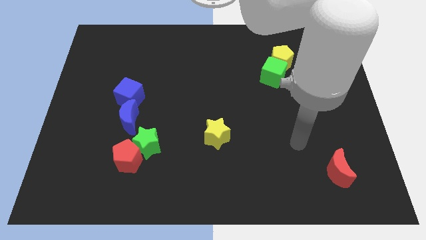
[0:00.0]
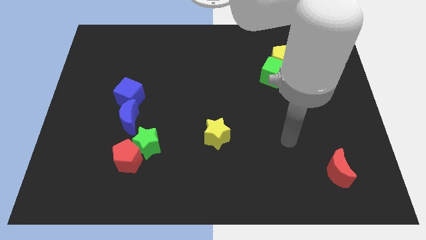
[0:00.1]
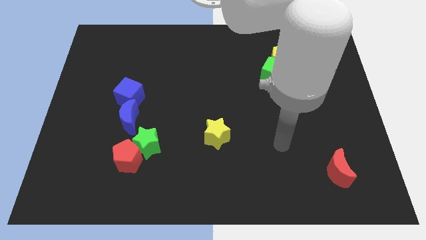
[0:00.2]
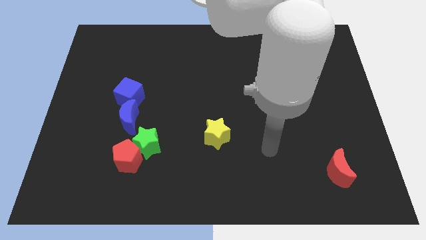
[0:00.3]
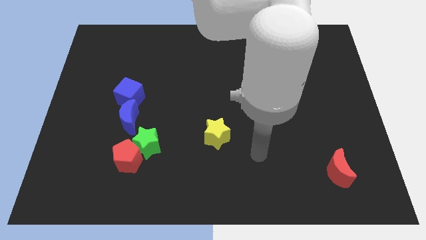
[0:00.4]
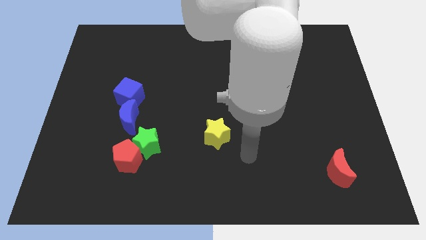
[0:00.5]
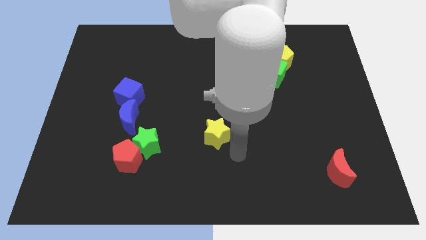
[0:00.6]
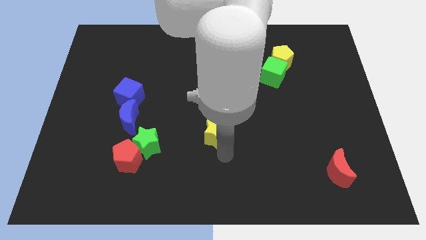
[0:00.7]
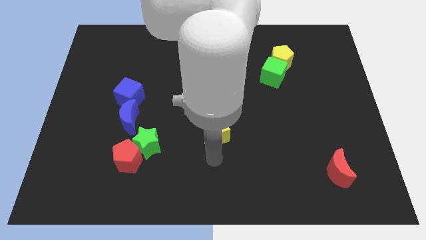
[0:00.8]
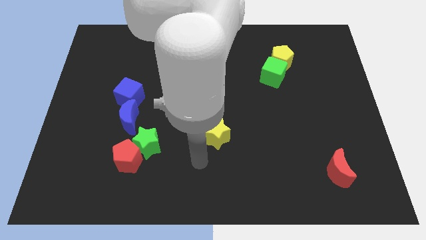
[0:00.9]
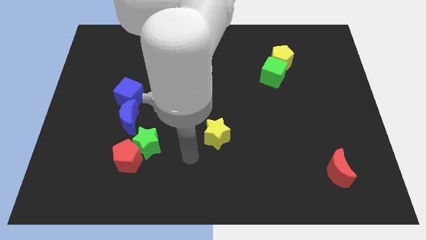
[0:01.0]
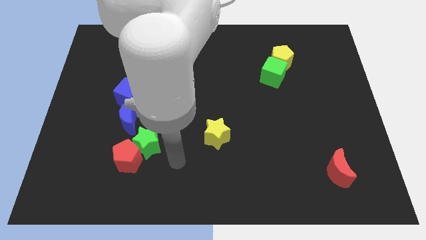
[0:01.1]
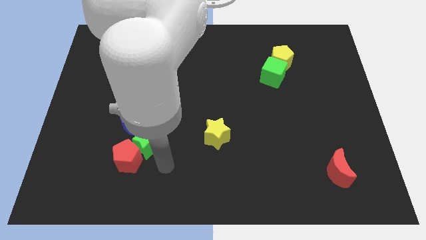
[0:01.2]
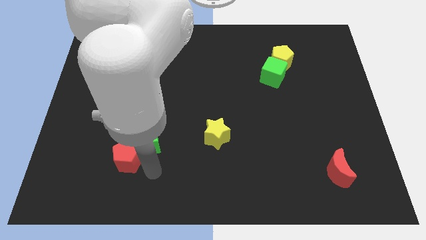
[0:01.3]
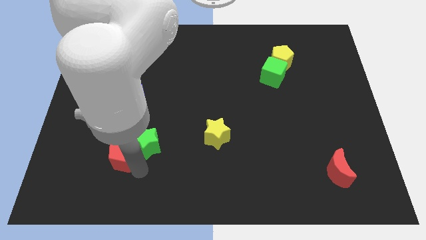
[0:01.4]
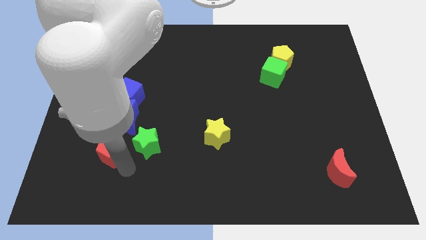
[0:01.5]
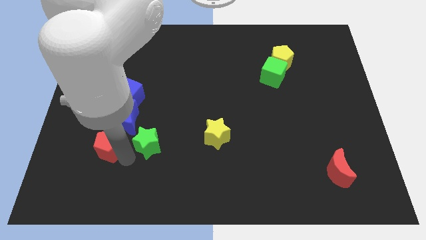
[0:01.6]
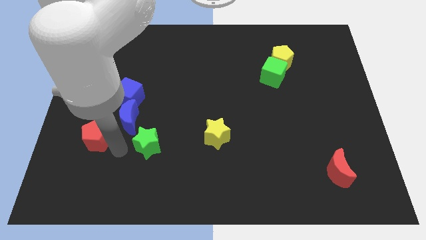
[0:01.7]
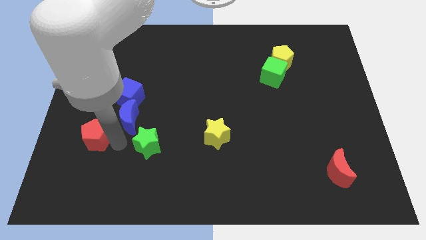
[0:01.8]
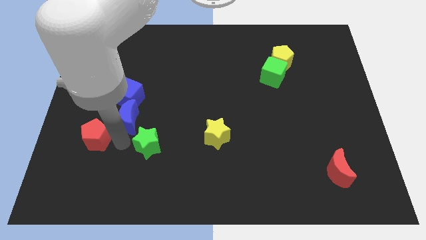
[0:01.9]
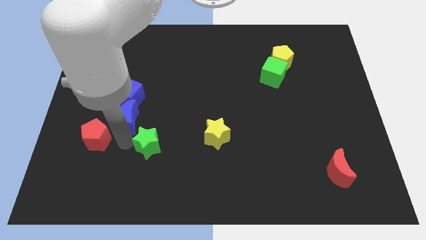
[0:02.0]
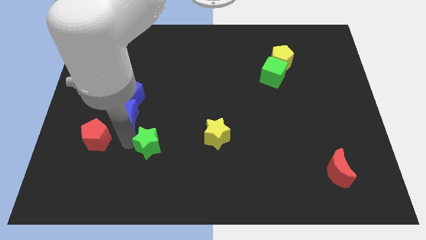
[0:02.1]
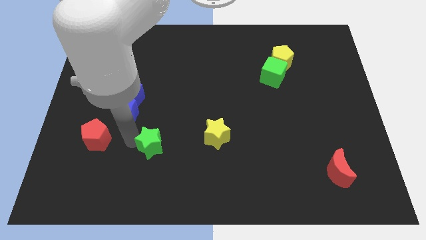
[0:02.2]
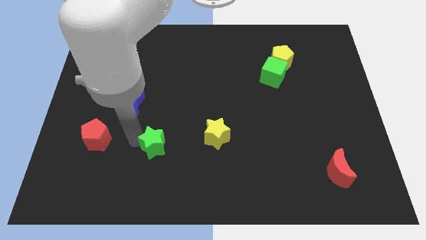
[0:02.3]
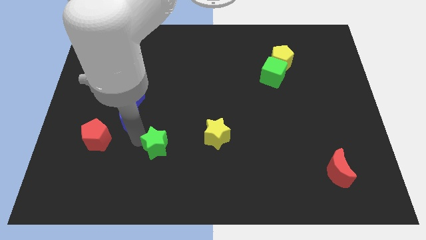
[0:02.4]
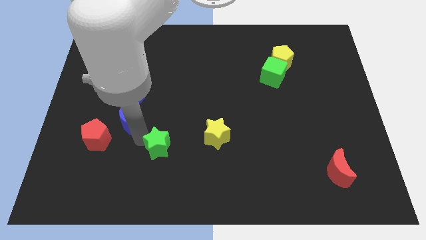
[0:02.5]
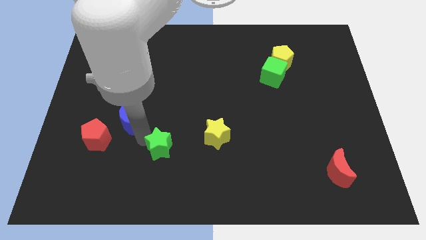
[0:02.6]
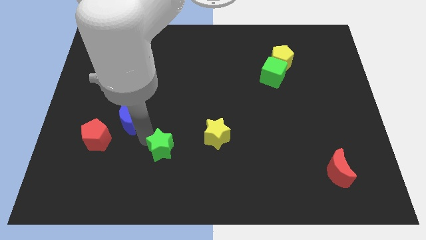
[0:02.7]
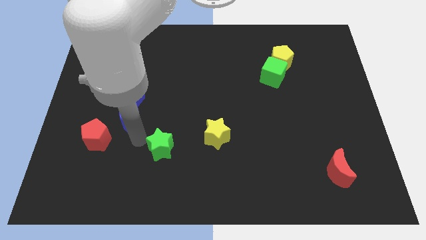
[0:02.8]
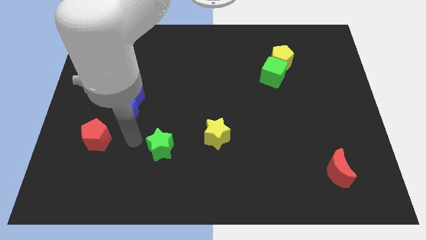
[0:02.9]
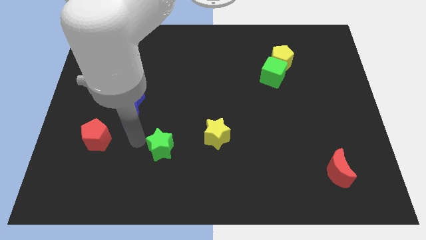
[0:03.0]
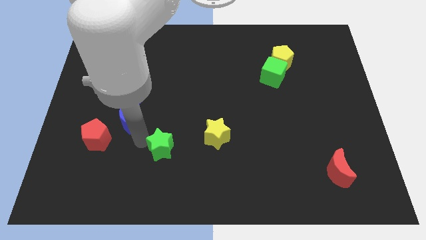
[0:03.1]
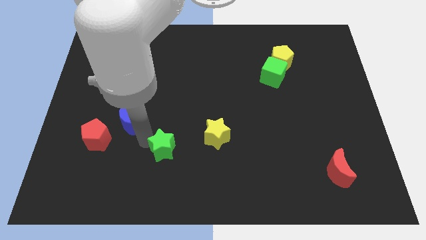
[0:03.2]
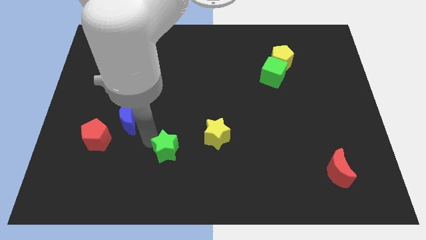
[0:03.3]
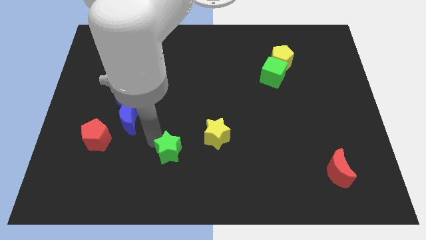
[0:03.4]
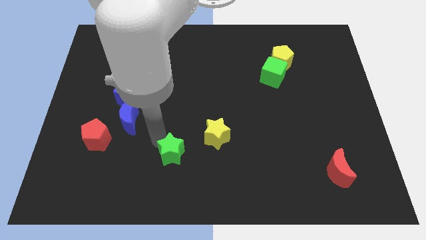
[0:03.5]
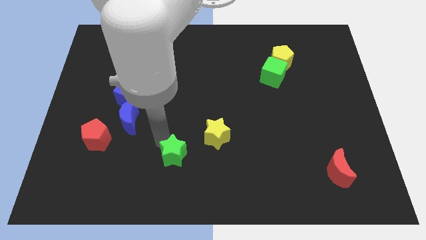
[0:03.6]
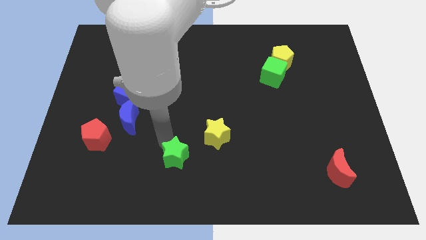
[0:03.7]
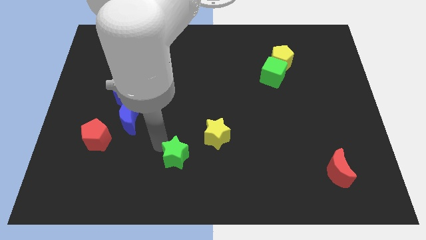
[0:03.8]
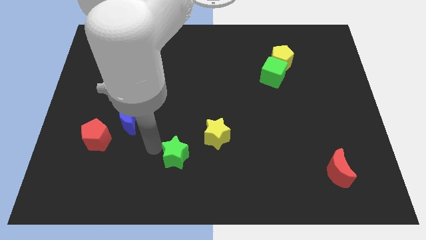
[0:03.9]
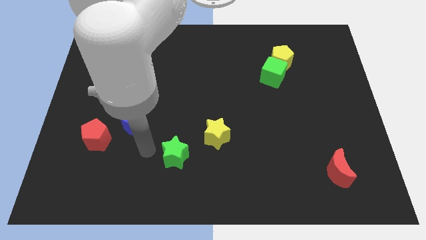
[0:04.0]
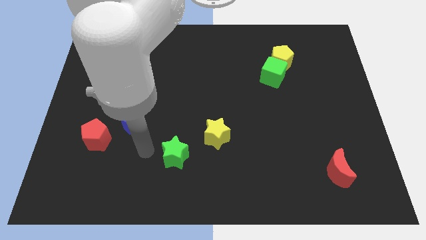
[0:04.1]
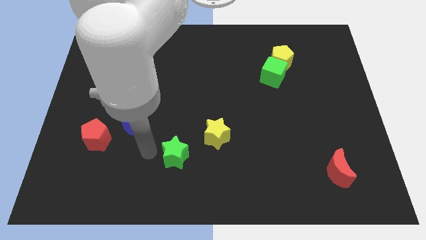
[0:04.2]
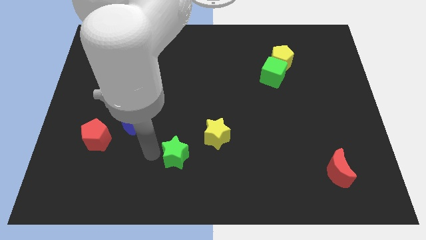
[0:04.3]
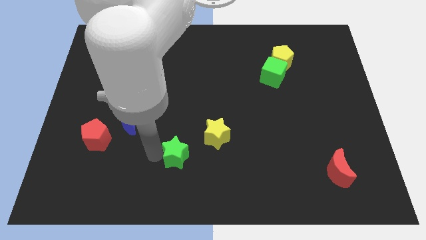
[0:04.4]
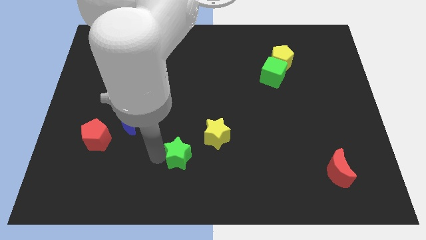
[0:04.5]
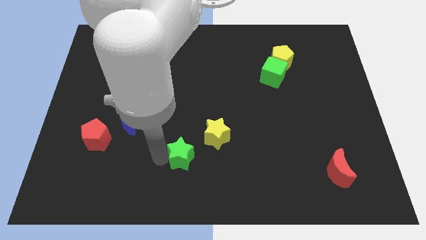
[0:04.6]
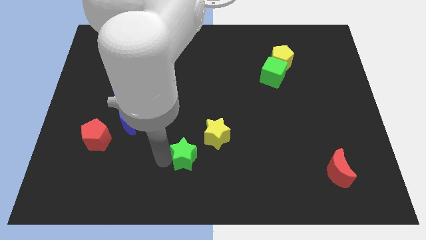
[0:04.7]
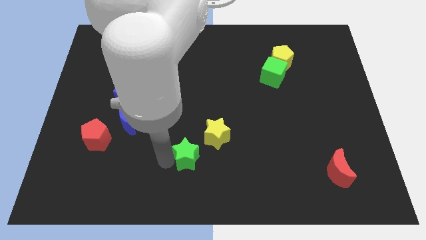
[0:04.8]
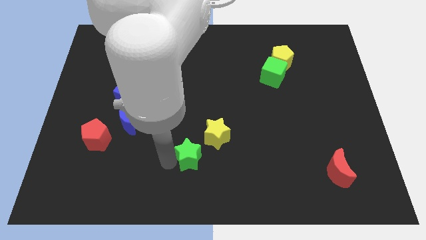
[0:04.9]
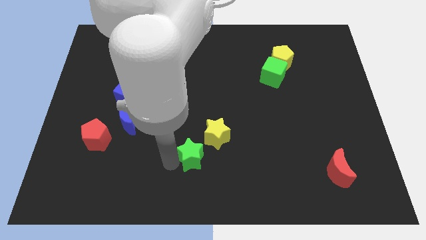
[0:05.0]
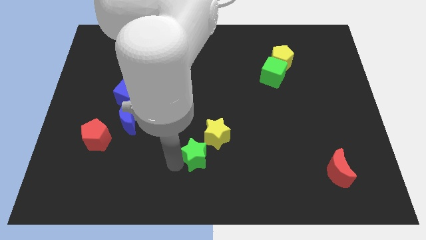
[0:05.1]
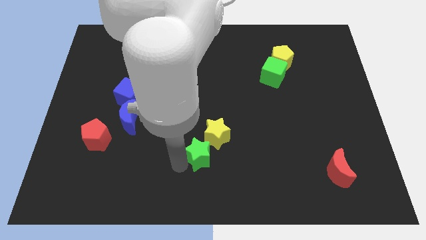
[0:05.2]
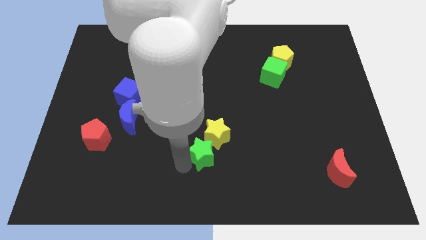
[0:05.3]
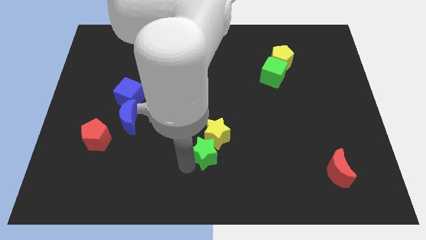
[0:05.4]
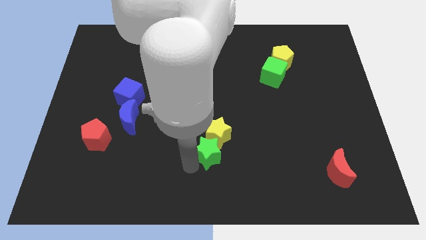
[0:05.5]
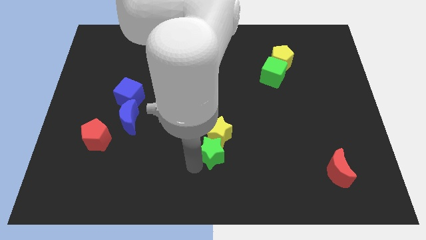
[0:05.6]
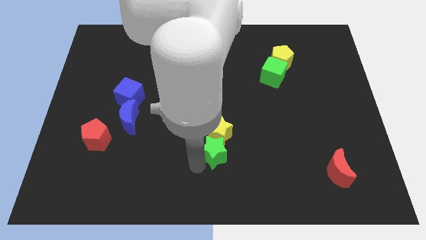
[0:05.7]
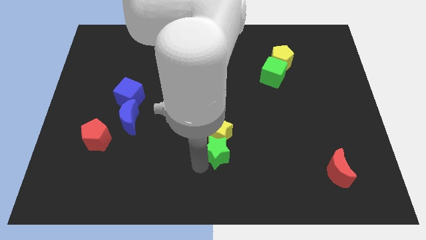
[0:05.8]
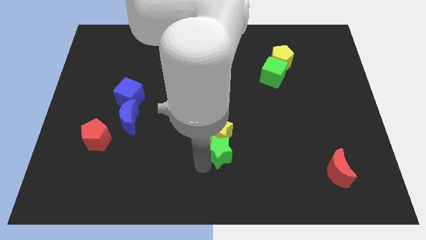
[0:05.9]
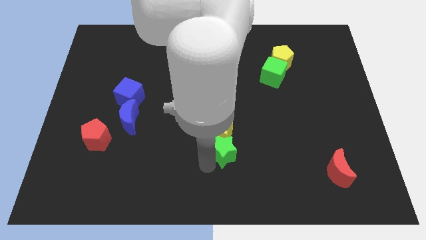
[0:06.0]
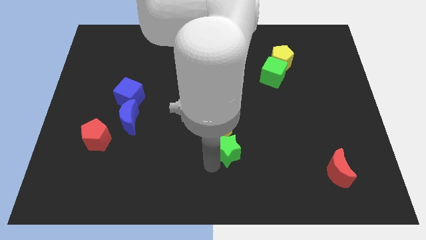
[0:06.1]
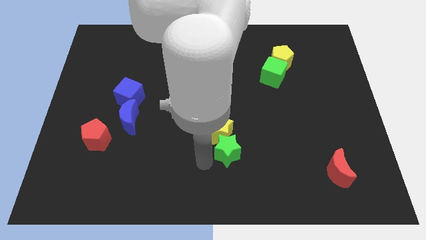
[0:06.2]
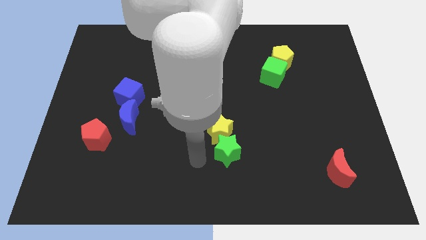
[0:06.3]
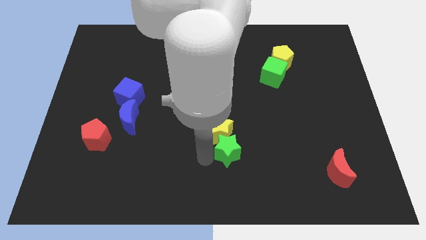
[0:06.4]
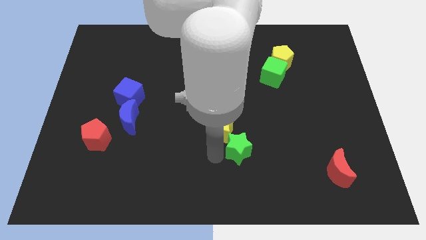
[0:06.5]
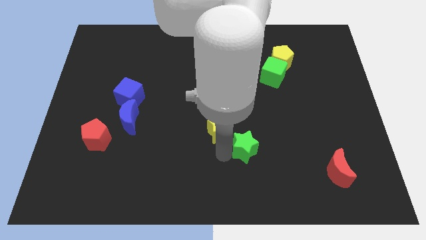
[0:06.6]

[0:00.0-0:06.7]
push the green star to the right

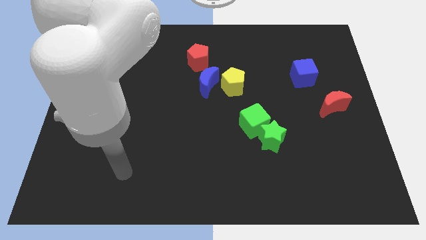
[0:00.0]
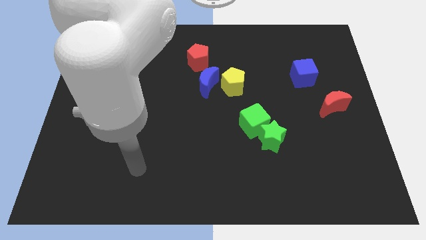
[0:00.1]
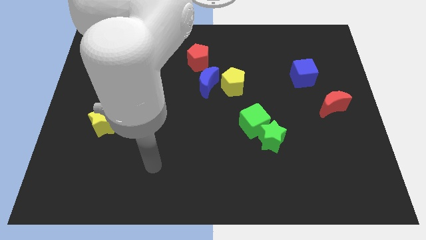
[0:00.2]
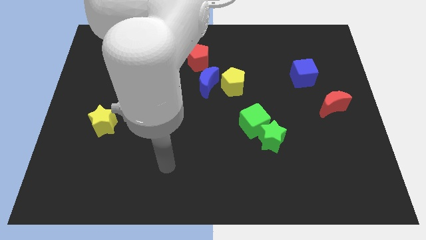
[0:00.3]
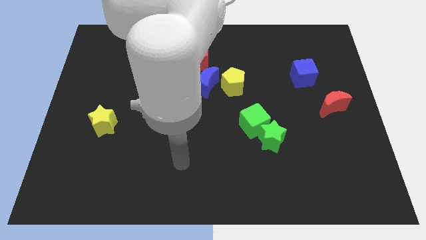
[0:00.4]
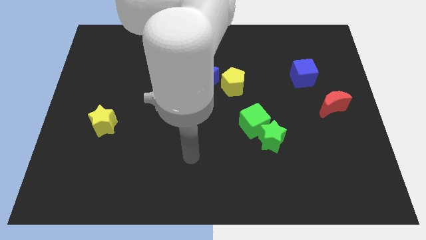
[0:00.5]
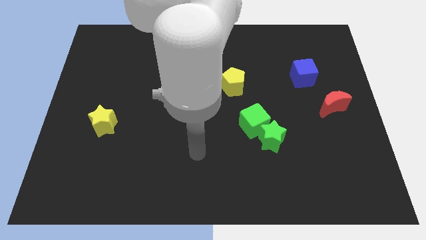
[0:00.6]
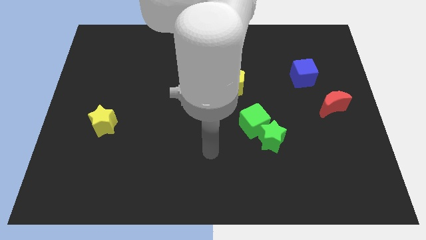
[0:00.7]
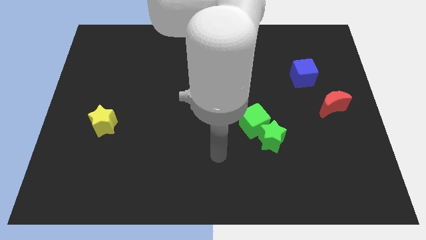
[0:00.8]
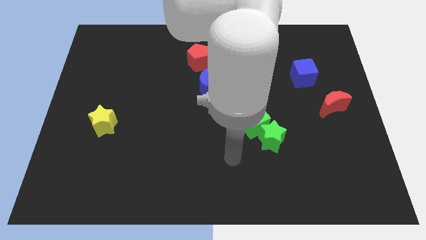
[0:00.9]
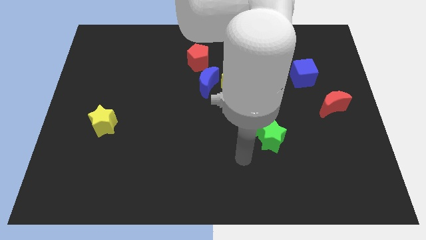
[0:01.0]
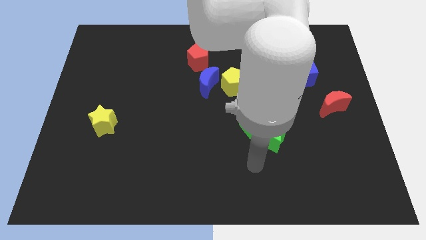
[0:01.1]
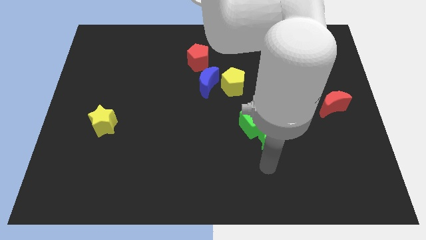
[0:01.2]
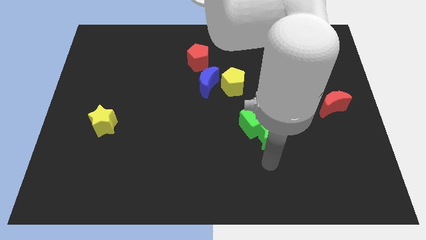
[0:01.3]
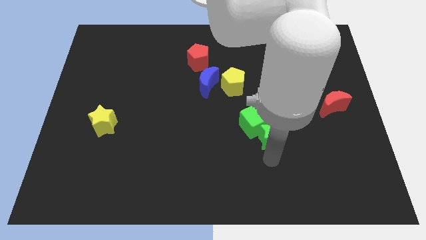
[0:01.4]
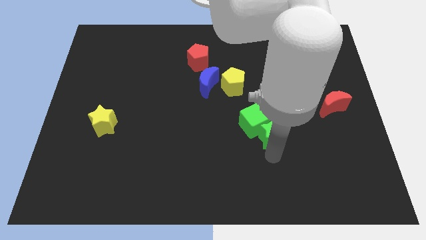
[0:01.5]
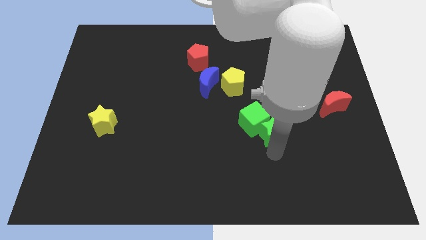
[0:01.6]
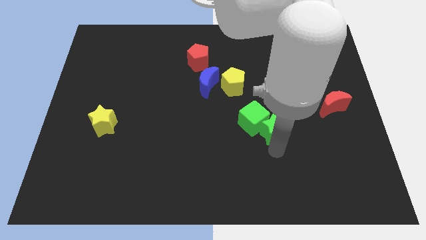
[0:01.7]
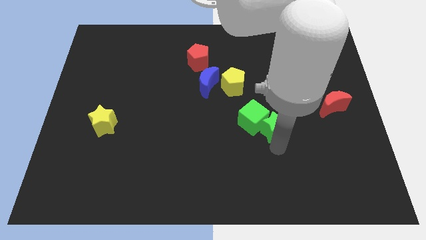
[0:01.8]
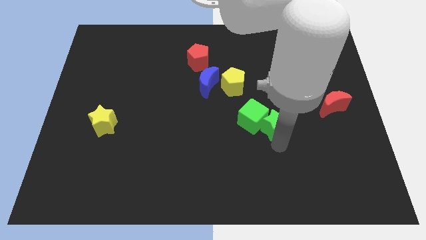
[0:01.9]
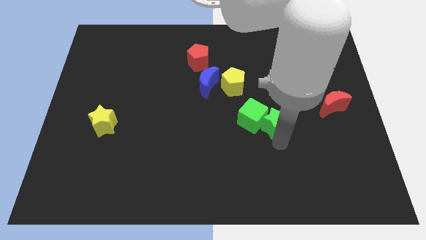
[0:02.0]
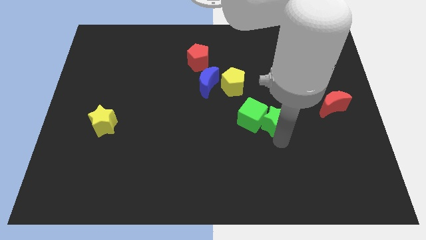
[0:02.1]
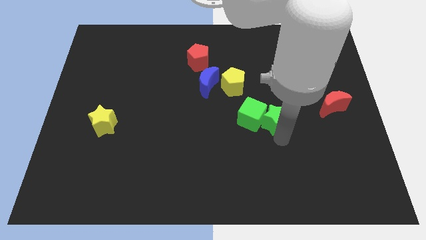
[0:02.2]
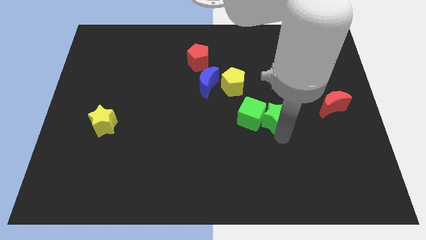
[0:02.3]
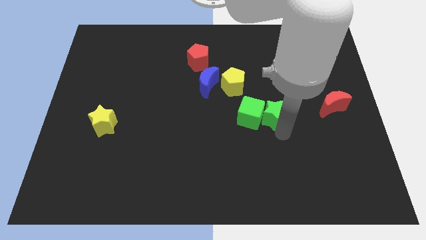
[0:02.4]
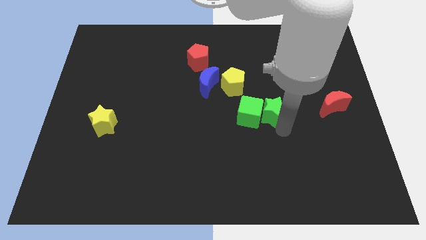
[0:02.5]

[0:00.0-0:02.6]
slightly move the green star upwards
